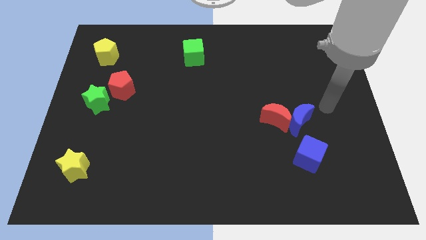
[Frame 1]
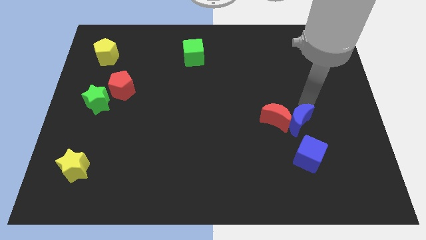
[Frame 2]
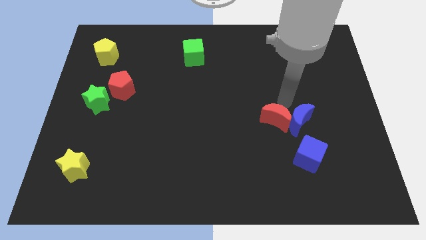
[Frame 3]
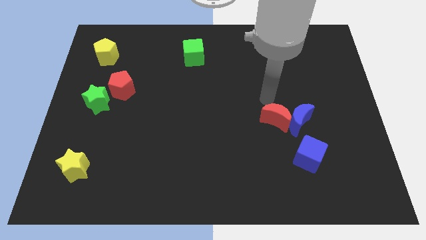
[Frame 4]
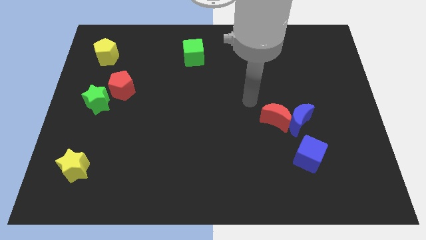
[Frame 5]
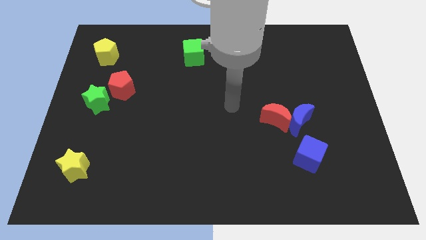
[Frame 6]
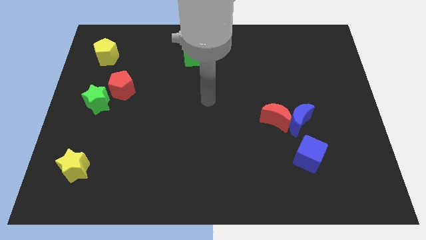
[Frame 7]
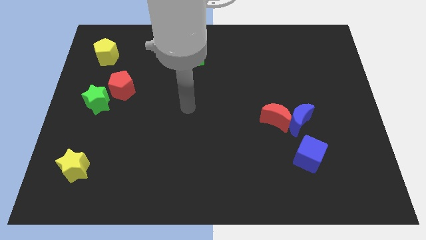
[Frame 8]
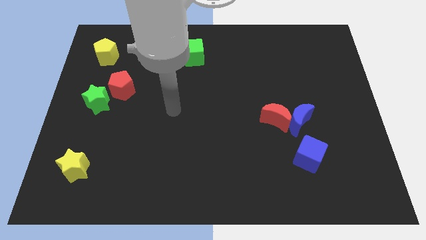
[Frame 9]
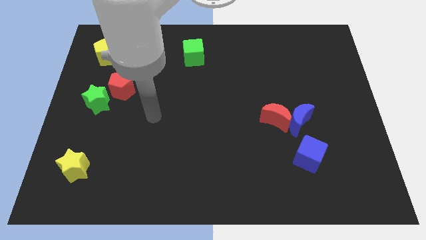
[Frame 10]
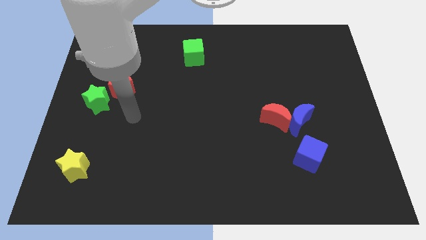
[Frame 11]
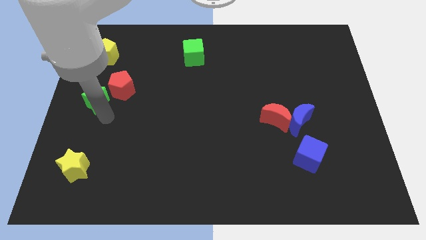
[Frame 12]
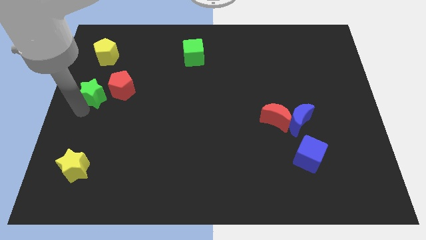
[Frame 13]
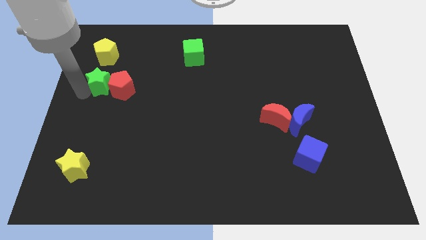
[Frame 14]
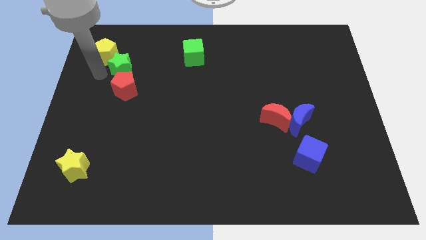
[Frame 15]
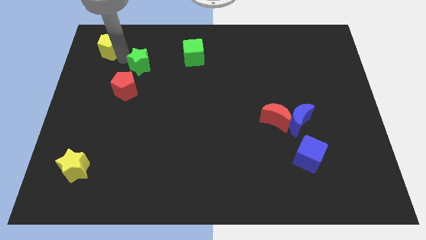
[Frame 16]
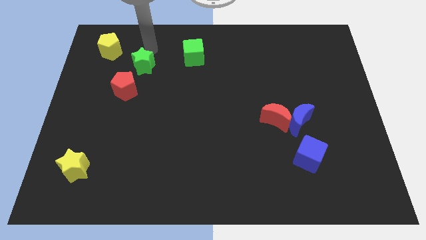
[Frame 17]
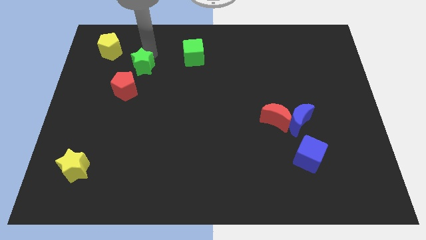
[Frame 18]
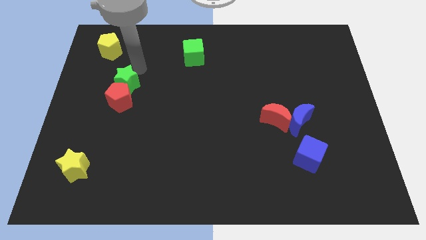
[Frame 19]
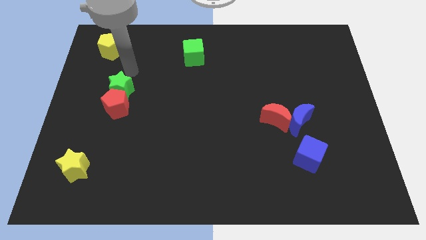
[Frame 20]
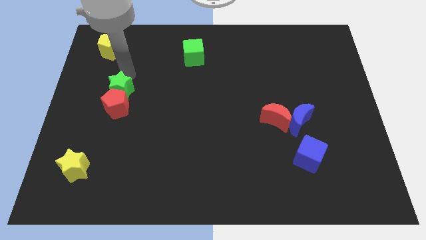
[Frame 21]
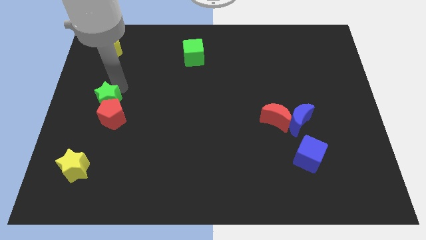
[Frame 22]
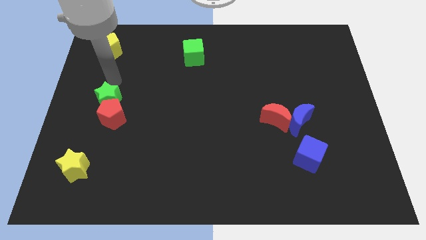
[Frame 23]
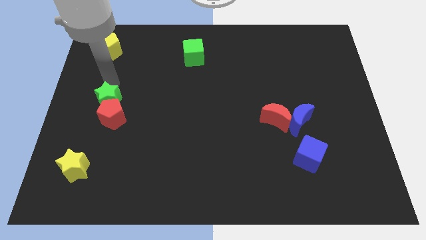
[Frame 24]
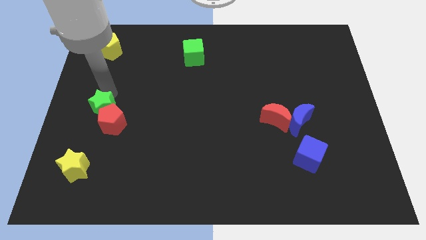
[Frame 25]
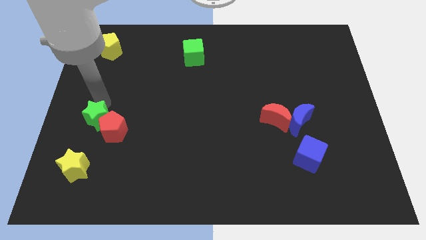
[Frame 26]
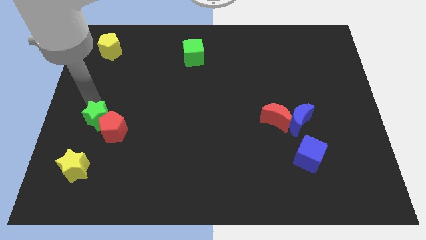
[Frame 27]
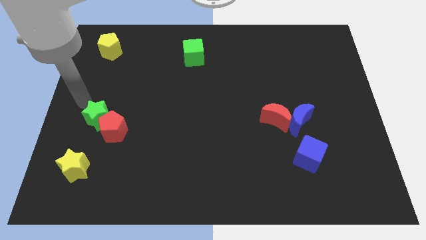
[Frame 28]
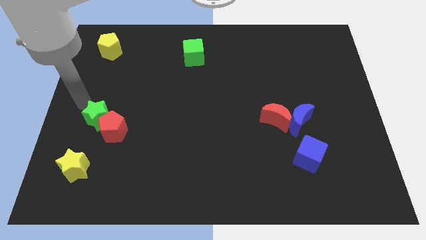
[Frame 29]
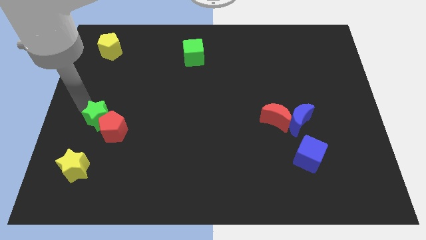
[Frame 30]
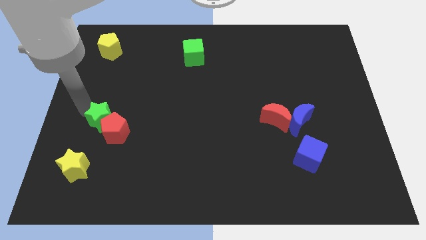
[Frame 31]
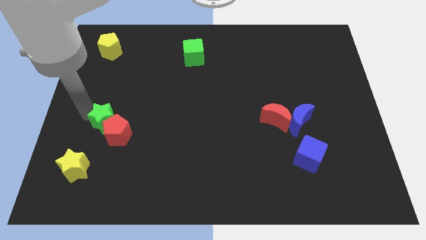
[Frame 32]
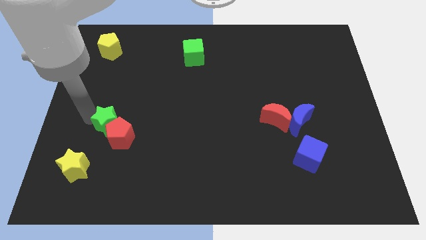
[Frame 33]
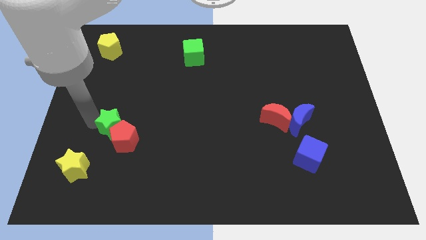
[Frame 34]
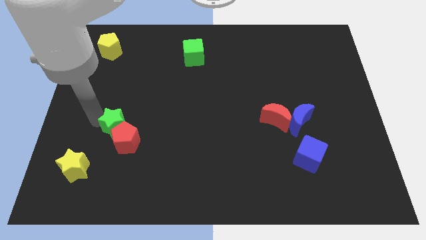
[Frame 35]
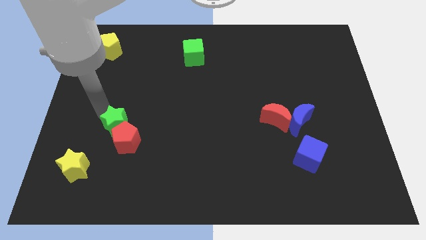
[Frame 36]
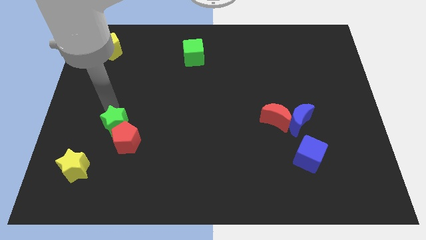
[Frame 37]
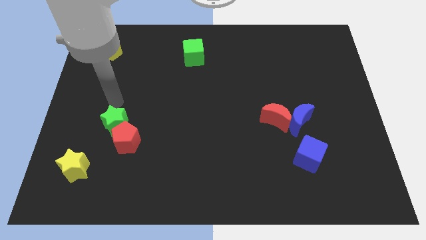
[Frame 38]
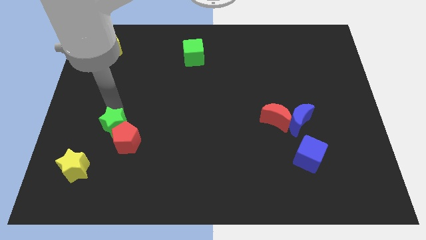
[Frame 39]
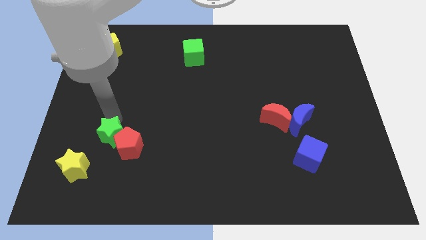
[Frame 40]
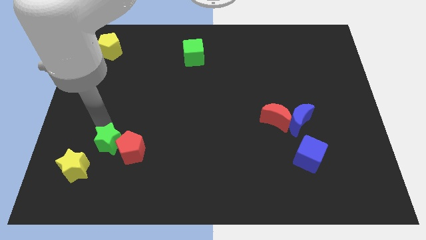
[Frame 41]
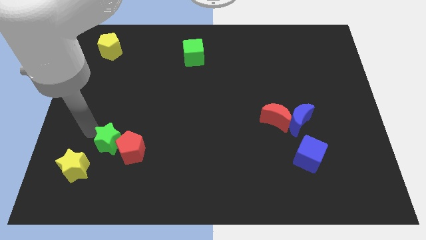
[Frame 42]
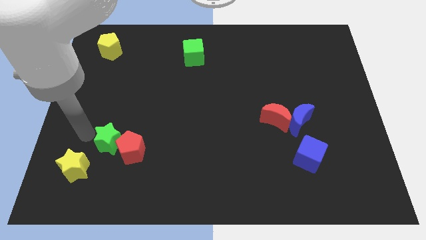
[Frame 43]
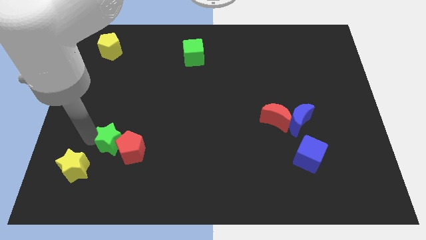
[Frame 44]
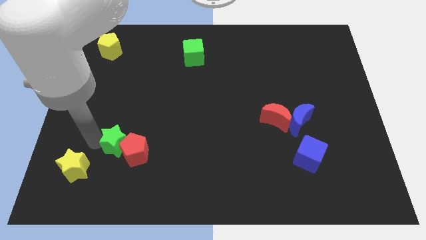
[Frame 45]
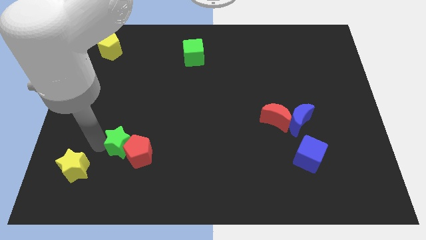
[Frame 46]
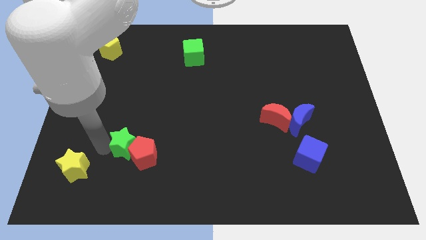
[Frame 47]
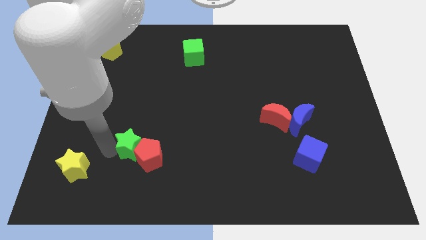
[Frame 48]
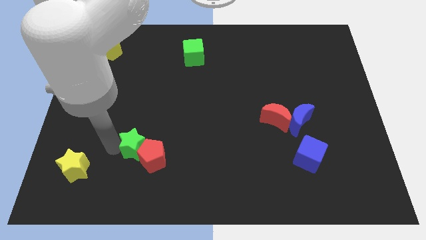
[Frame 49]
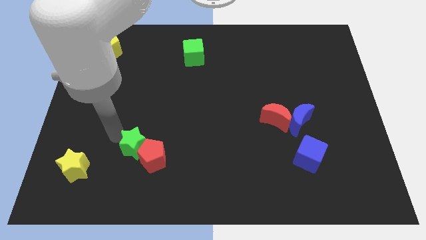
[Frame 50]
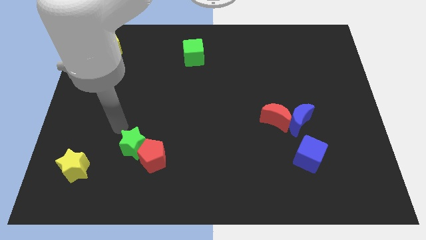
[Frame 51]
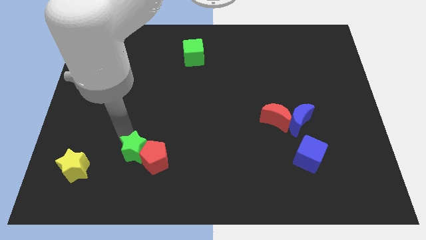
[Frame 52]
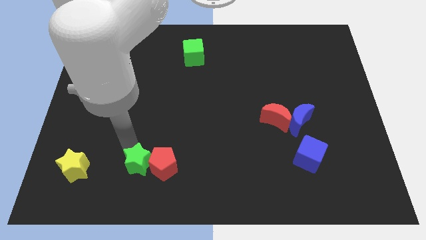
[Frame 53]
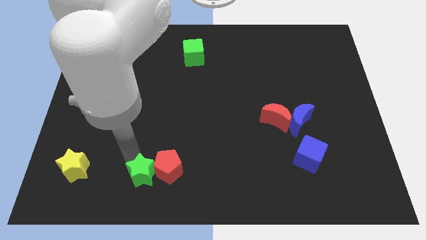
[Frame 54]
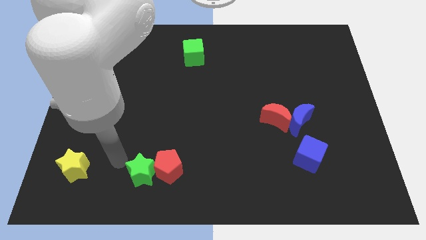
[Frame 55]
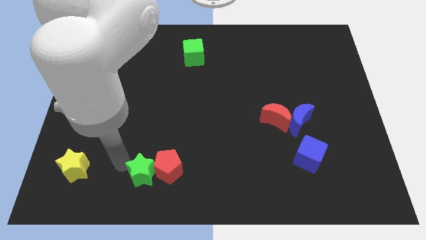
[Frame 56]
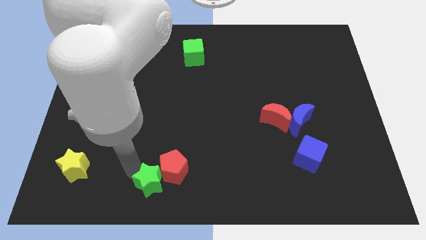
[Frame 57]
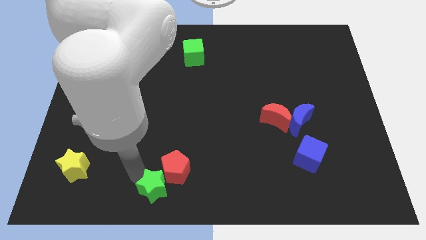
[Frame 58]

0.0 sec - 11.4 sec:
move the green star to the bottom
